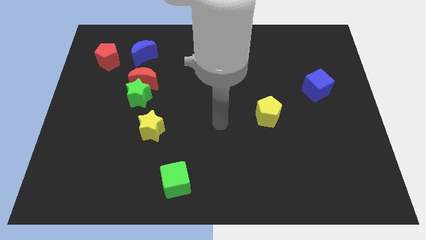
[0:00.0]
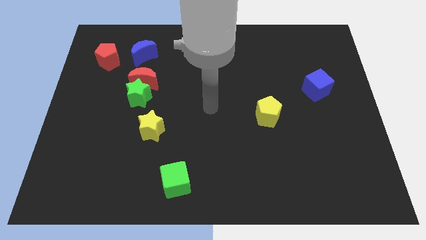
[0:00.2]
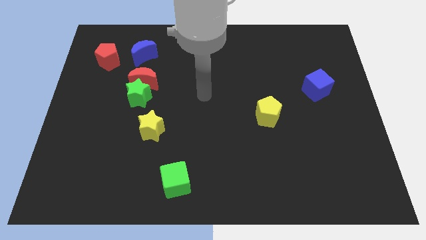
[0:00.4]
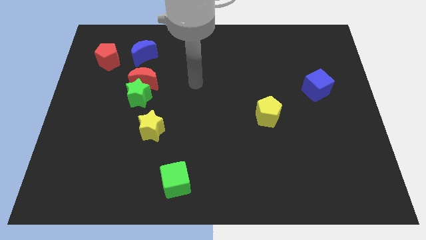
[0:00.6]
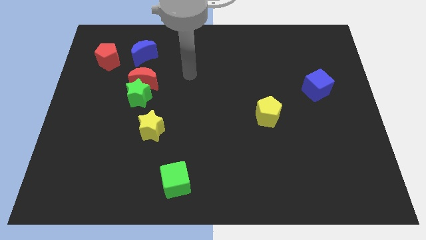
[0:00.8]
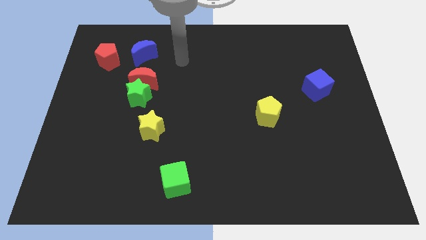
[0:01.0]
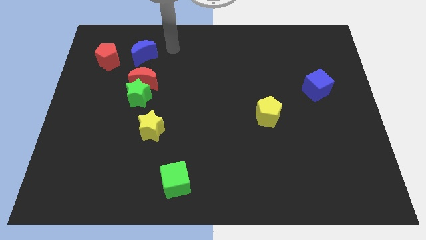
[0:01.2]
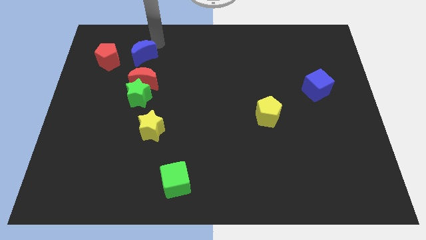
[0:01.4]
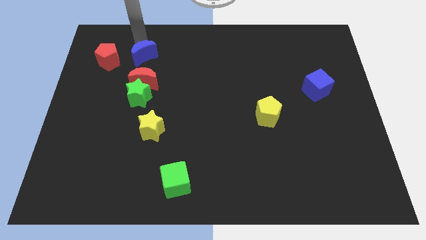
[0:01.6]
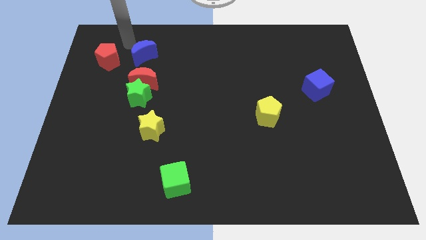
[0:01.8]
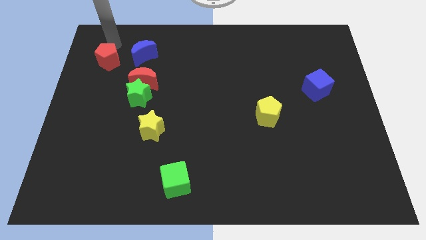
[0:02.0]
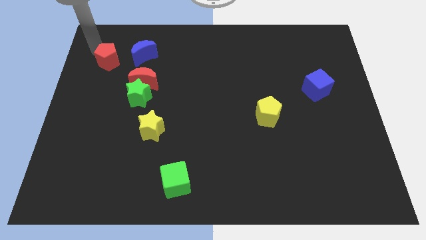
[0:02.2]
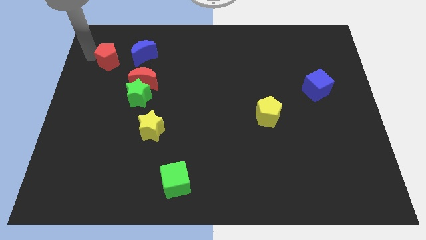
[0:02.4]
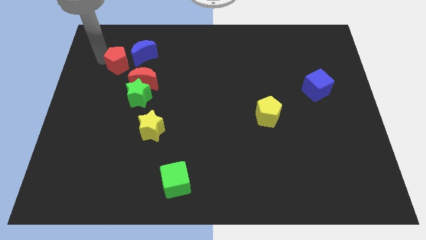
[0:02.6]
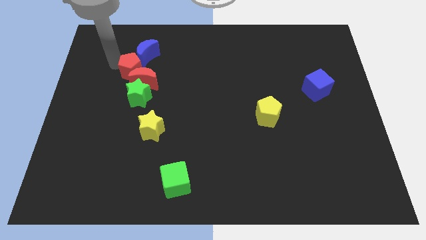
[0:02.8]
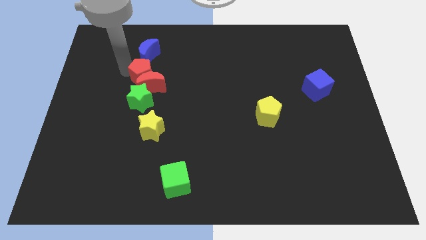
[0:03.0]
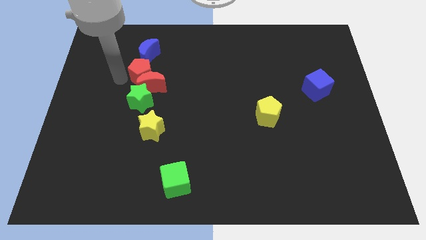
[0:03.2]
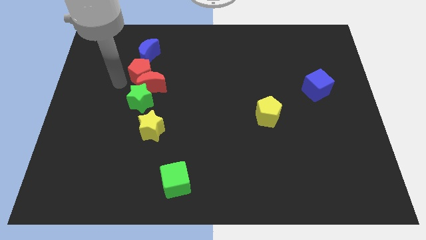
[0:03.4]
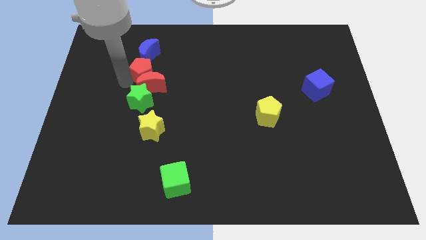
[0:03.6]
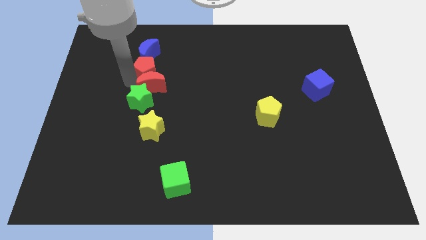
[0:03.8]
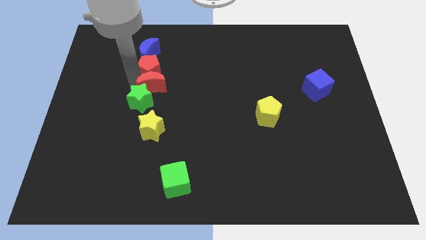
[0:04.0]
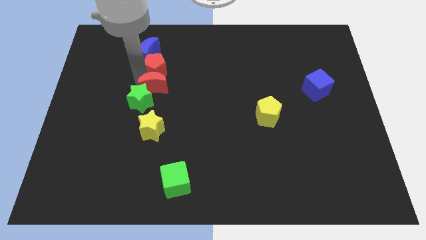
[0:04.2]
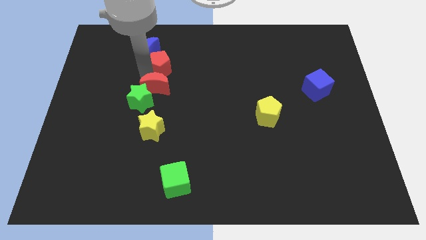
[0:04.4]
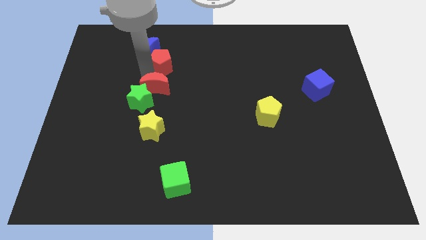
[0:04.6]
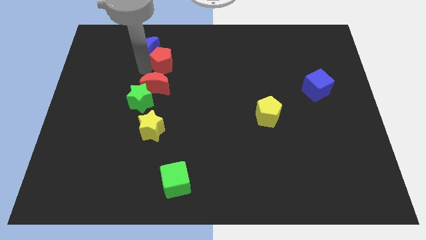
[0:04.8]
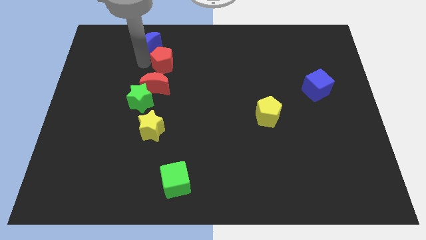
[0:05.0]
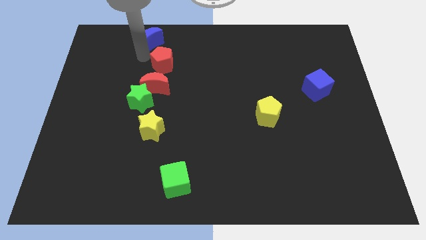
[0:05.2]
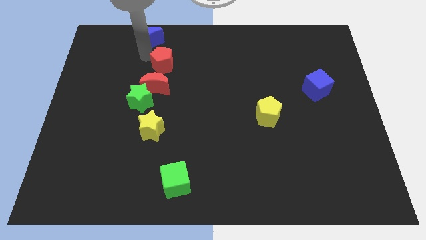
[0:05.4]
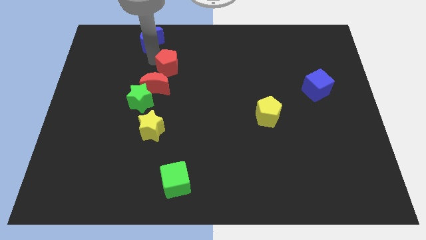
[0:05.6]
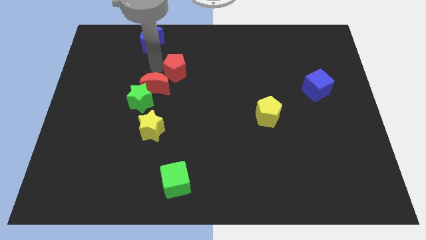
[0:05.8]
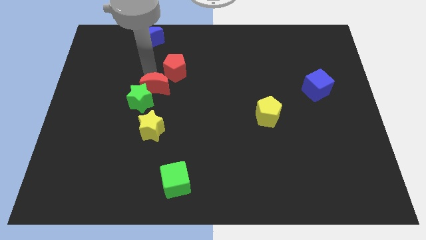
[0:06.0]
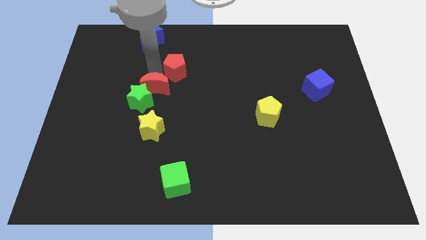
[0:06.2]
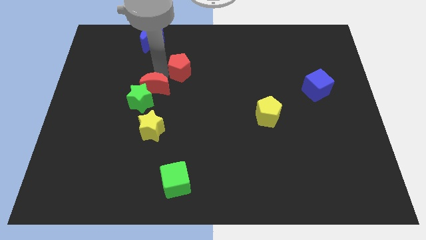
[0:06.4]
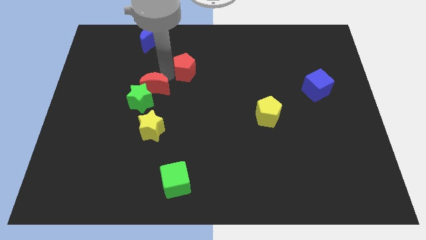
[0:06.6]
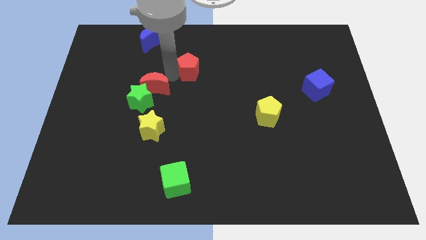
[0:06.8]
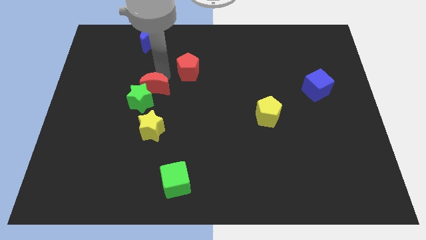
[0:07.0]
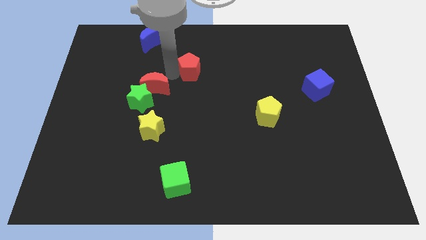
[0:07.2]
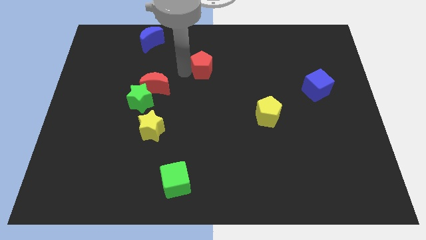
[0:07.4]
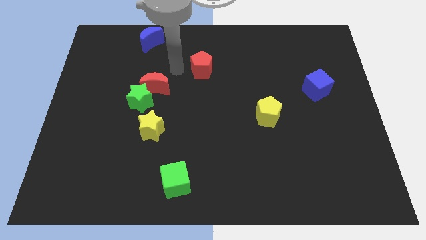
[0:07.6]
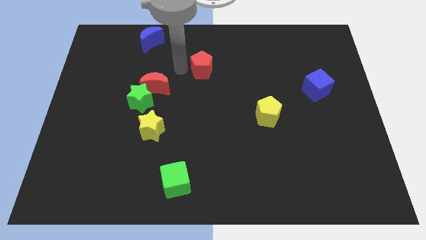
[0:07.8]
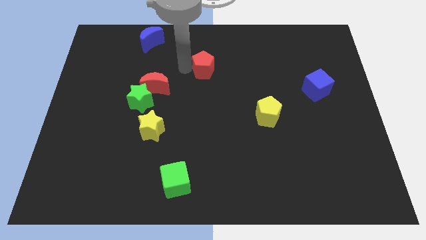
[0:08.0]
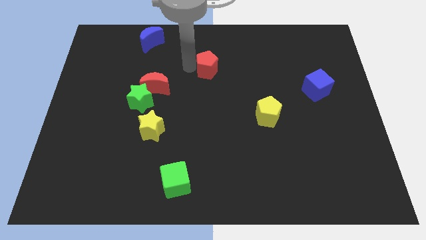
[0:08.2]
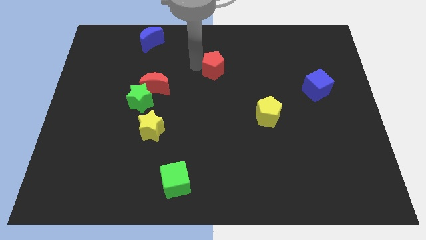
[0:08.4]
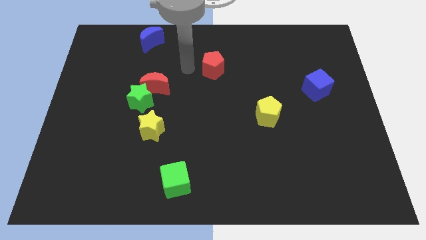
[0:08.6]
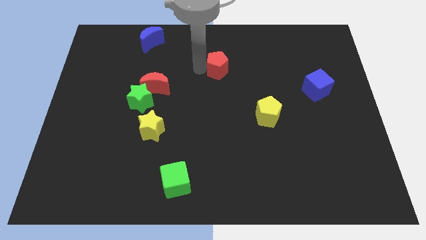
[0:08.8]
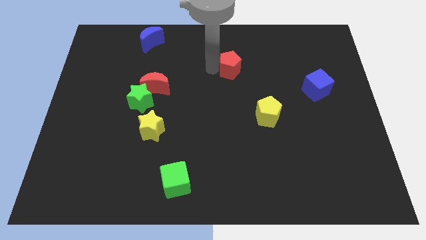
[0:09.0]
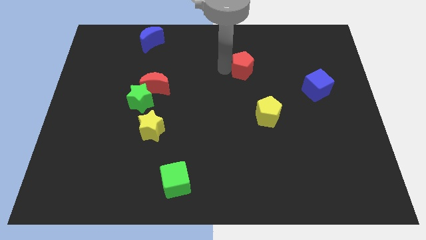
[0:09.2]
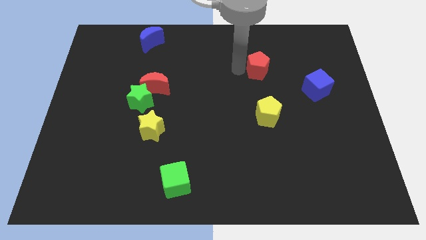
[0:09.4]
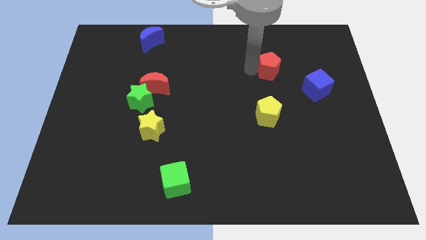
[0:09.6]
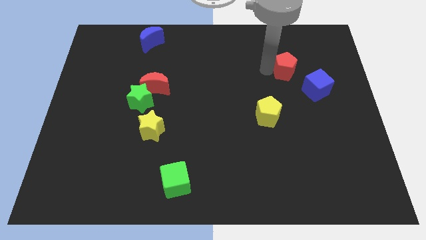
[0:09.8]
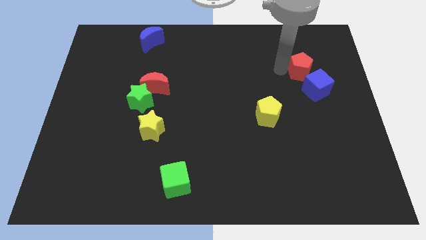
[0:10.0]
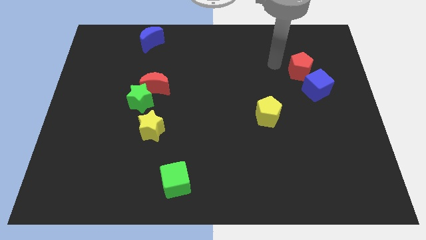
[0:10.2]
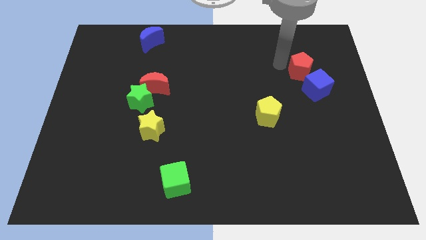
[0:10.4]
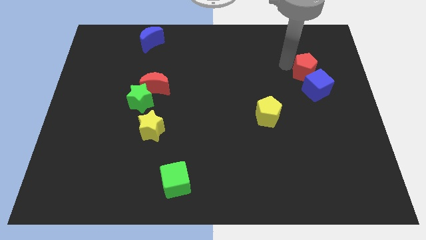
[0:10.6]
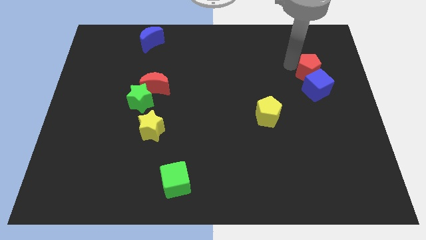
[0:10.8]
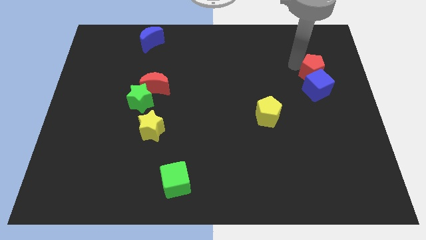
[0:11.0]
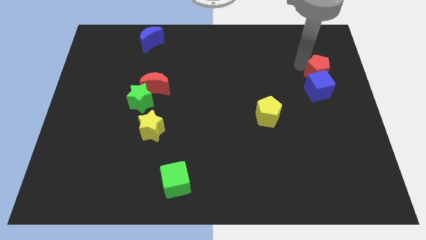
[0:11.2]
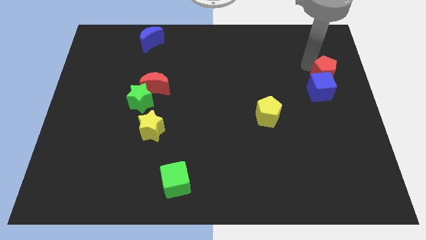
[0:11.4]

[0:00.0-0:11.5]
put the red pentagon to the right side

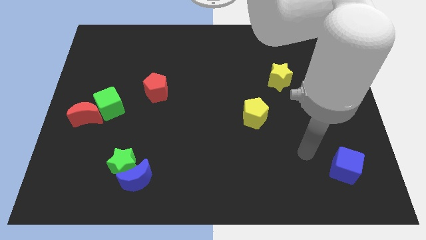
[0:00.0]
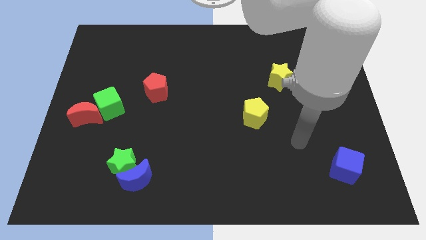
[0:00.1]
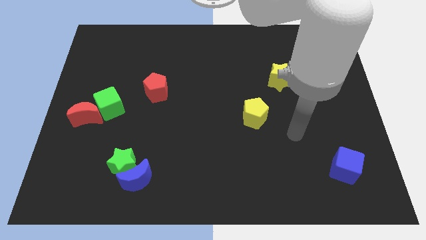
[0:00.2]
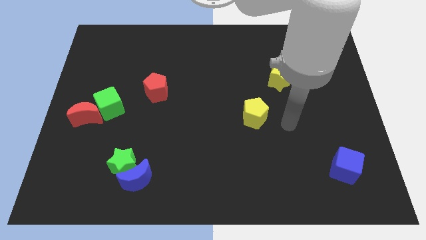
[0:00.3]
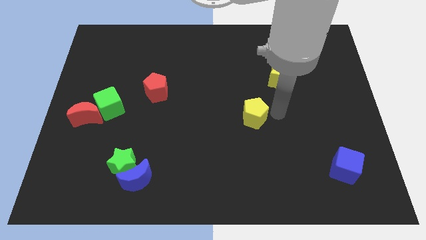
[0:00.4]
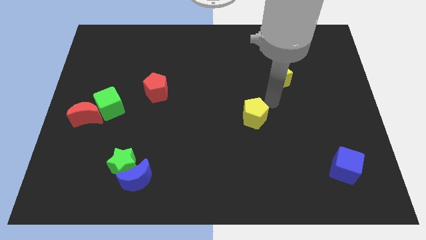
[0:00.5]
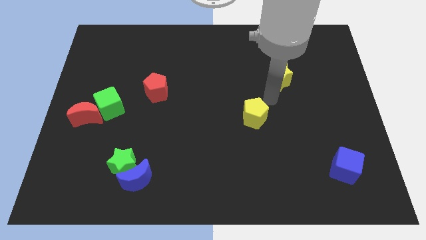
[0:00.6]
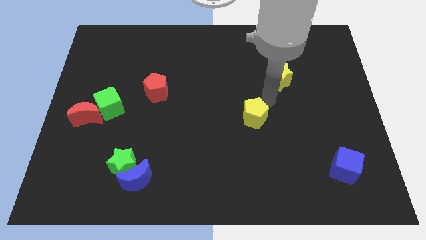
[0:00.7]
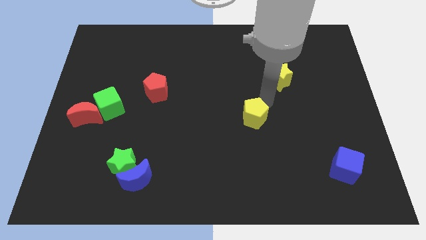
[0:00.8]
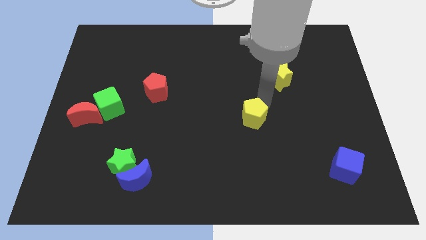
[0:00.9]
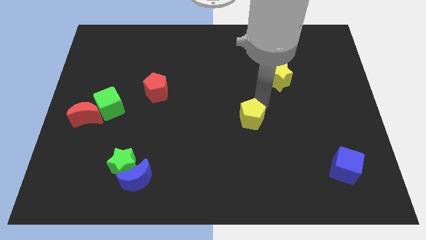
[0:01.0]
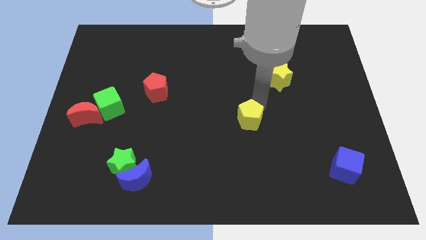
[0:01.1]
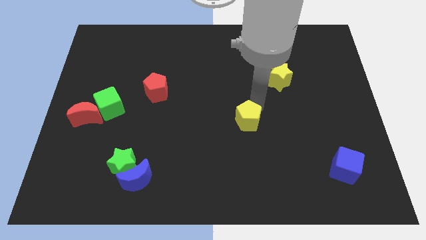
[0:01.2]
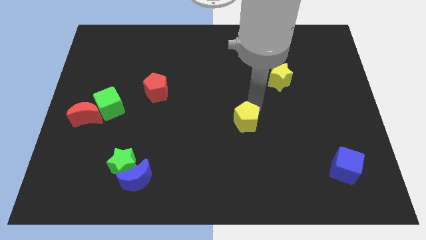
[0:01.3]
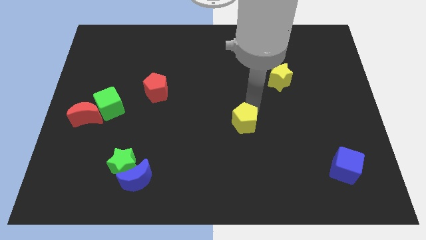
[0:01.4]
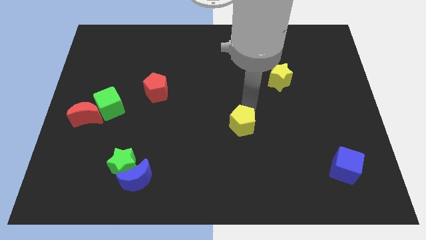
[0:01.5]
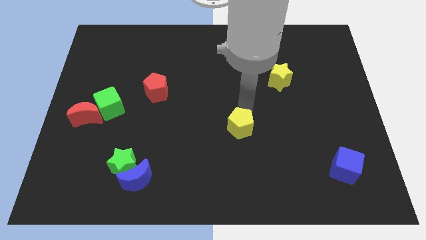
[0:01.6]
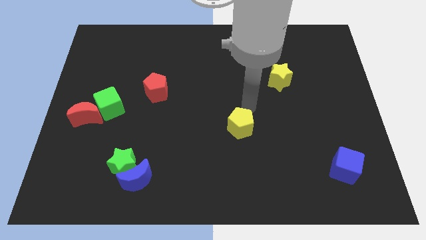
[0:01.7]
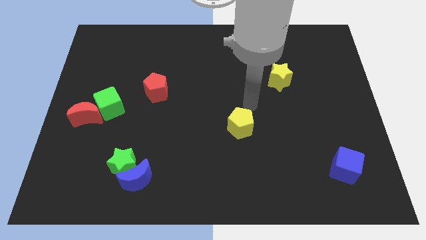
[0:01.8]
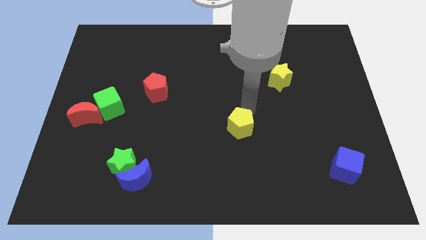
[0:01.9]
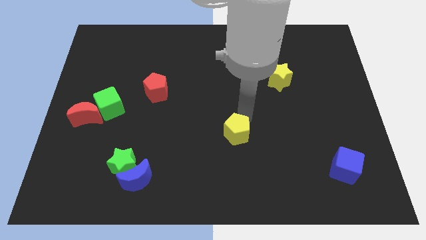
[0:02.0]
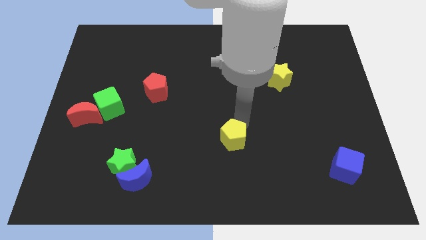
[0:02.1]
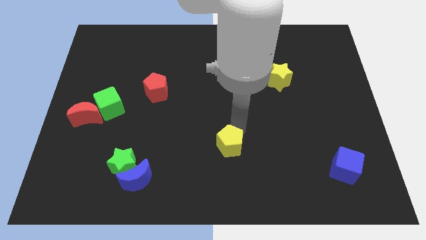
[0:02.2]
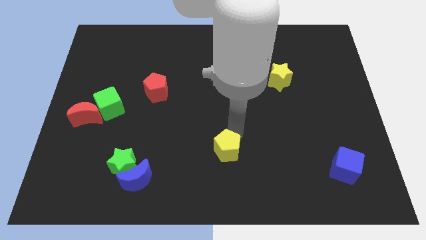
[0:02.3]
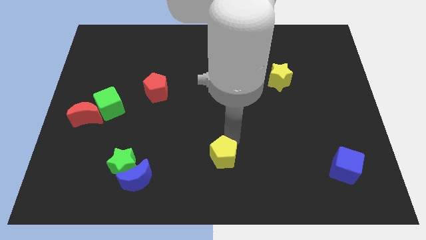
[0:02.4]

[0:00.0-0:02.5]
slide the yellow pentagon to the bottom side
